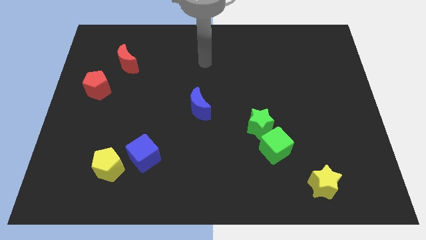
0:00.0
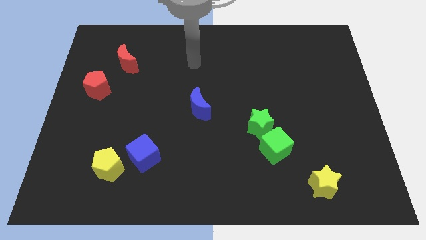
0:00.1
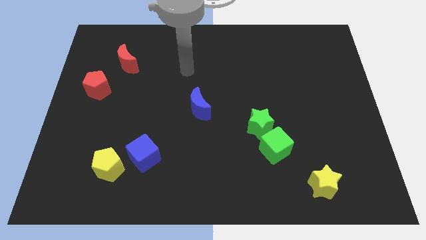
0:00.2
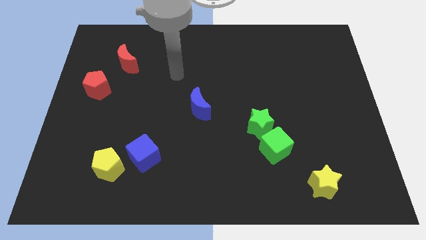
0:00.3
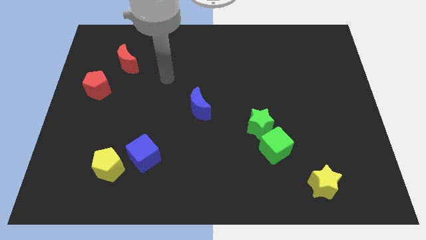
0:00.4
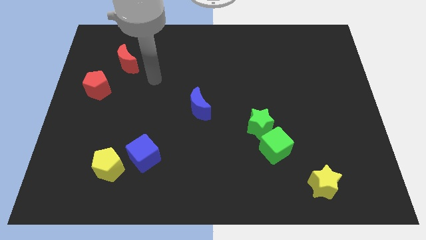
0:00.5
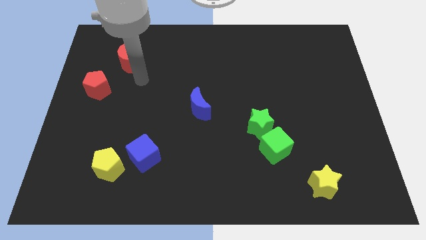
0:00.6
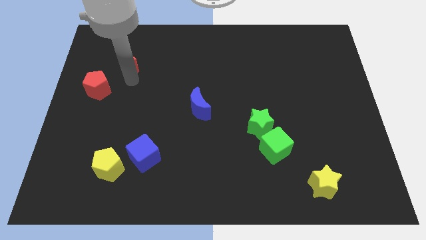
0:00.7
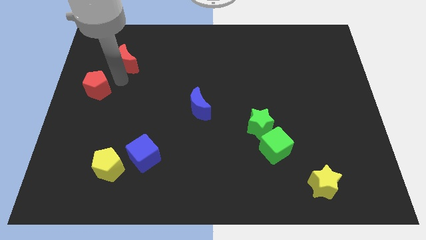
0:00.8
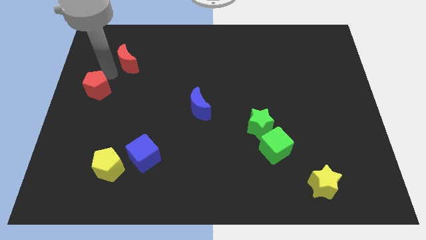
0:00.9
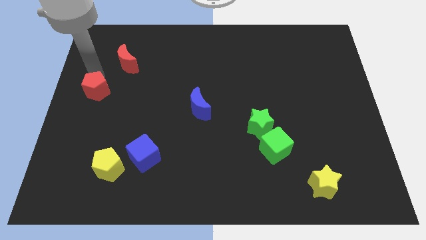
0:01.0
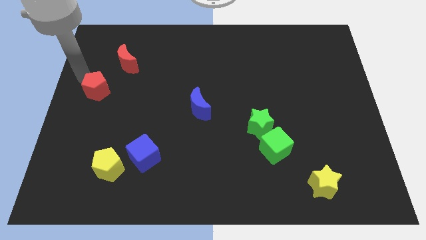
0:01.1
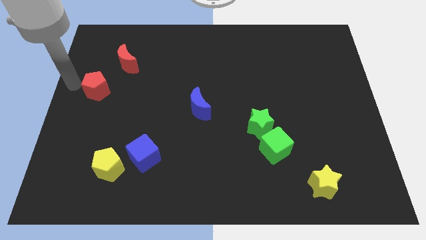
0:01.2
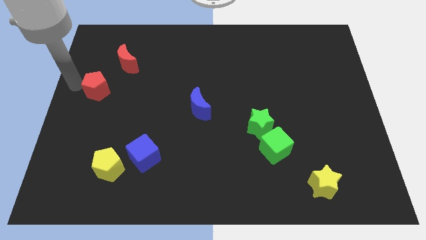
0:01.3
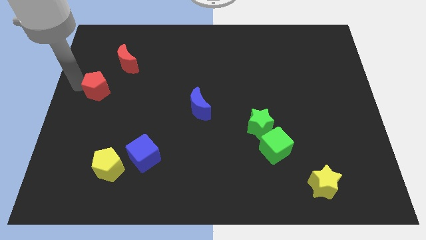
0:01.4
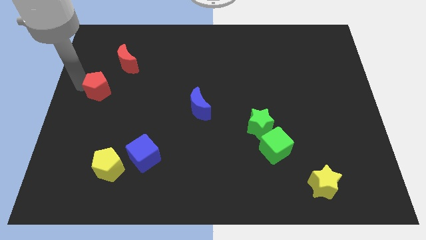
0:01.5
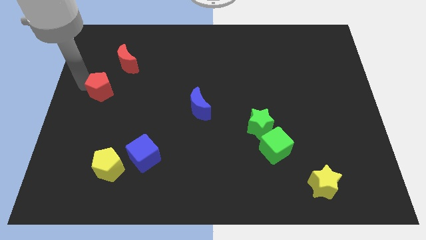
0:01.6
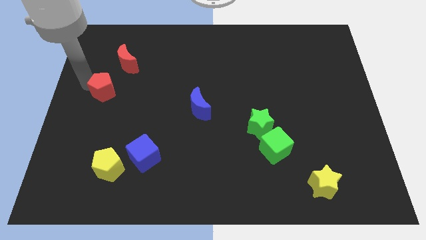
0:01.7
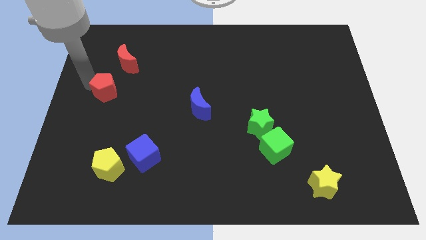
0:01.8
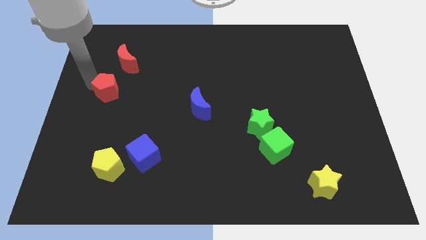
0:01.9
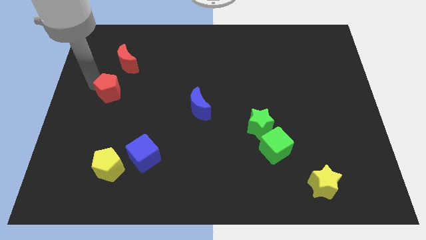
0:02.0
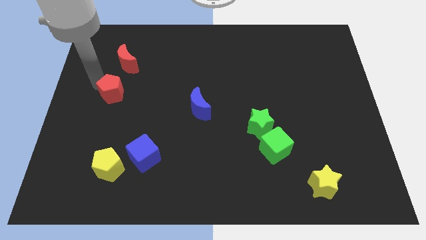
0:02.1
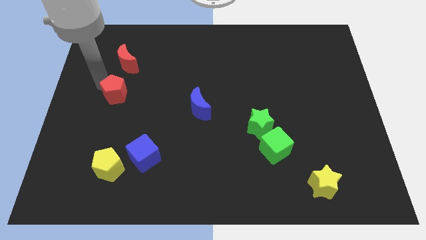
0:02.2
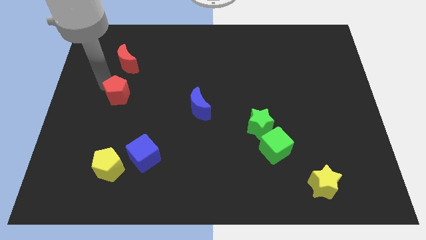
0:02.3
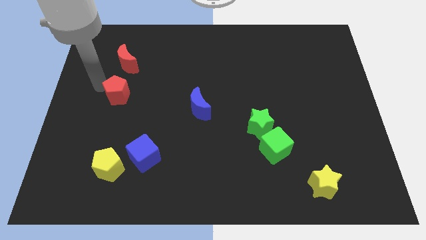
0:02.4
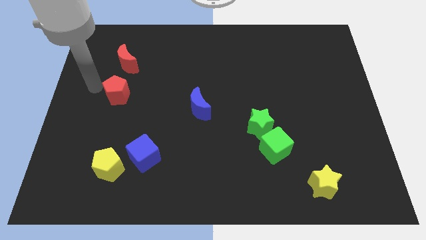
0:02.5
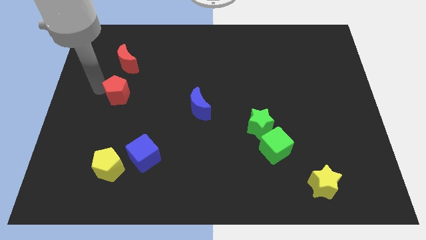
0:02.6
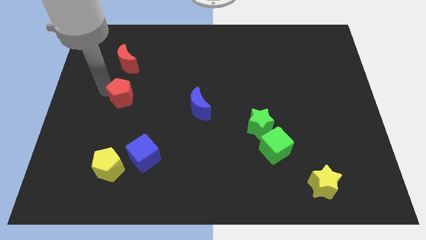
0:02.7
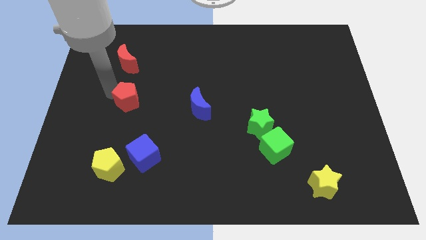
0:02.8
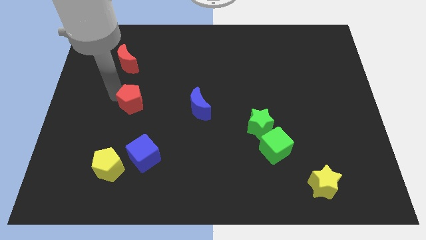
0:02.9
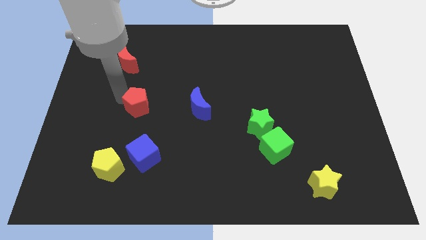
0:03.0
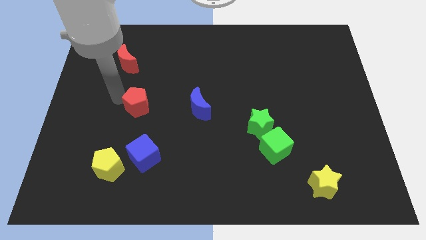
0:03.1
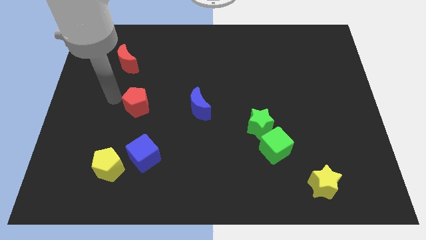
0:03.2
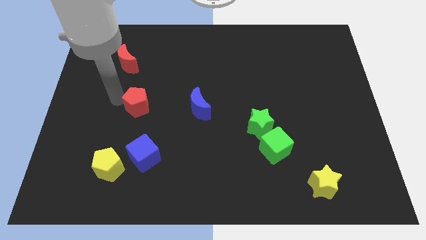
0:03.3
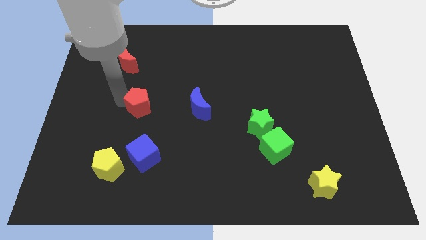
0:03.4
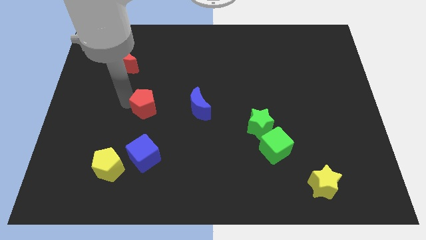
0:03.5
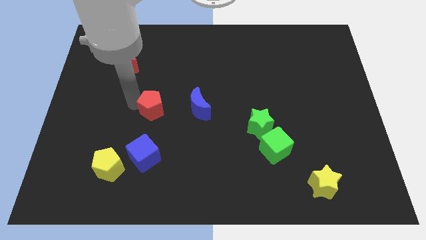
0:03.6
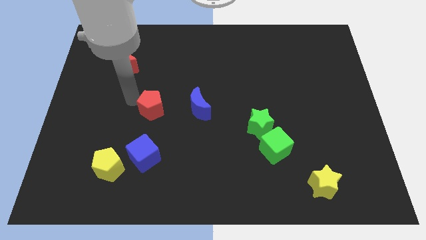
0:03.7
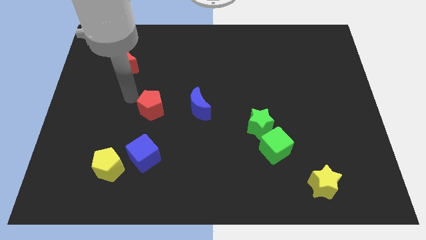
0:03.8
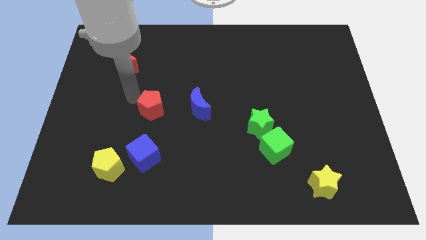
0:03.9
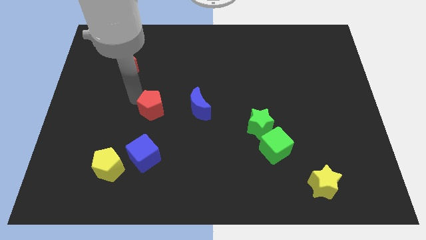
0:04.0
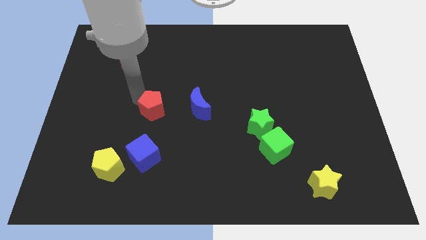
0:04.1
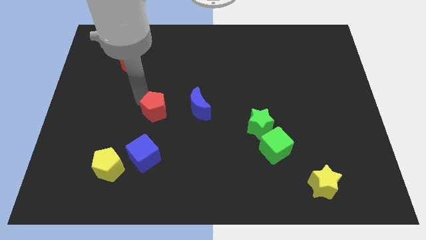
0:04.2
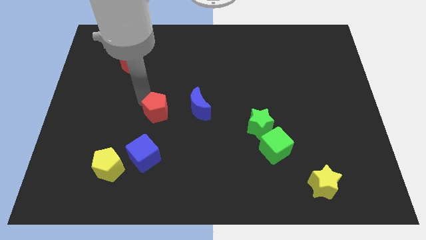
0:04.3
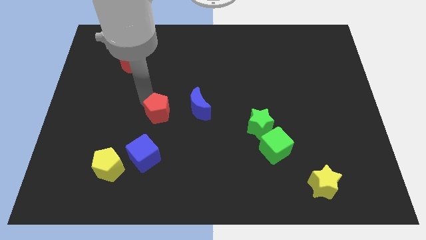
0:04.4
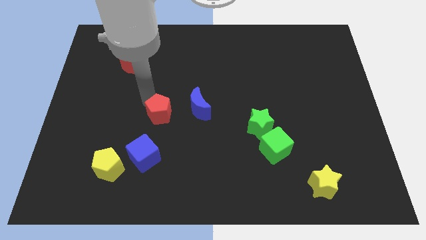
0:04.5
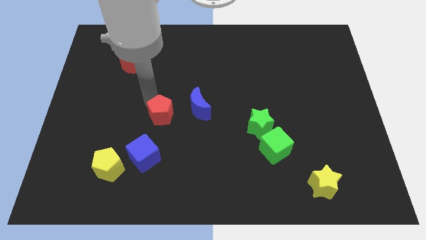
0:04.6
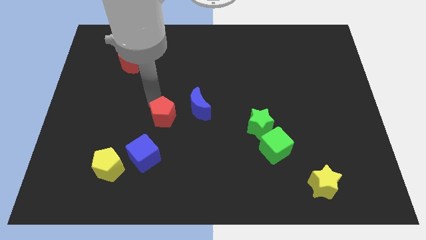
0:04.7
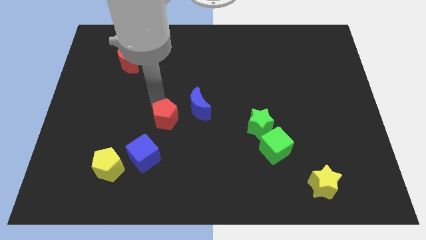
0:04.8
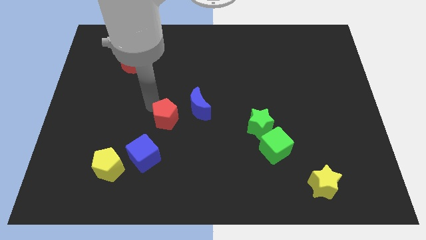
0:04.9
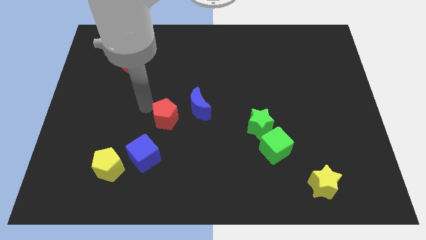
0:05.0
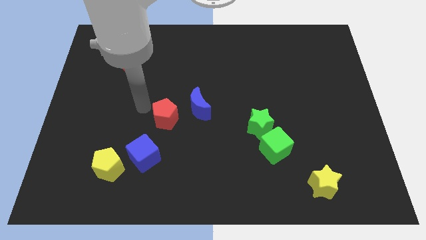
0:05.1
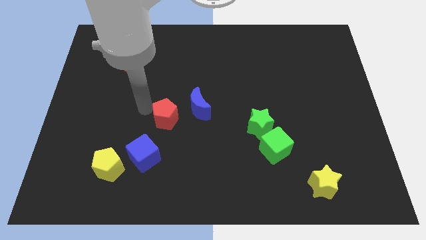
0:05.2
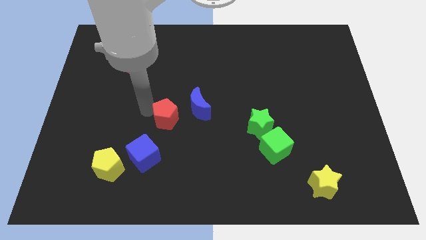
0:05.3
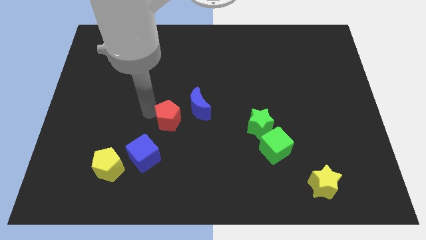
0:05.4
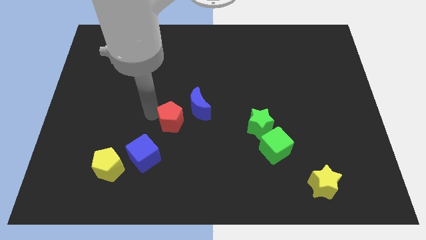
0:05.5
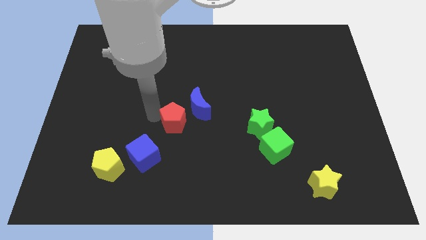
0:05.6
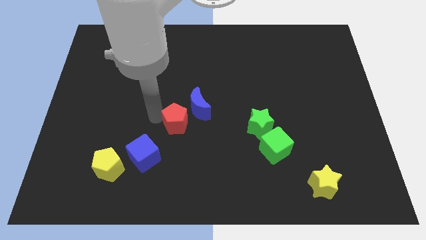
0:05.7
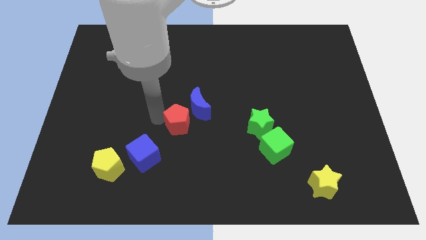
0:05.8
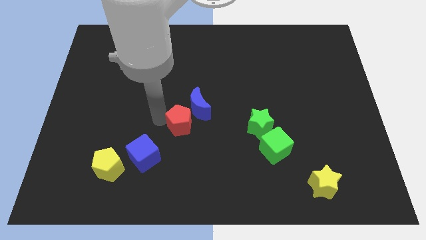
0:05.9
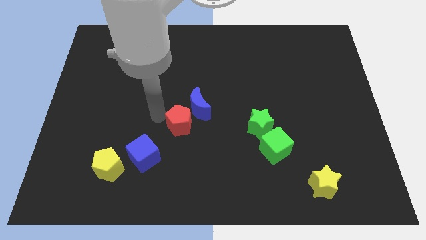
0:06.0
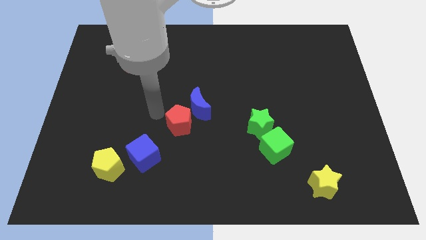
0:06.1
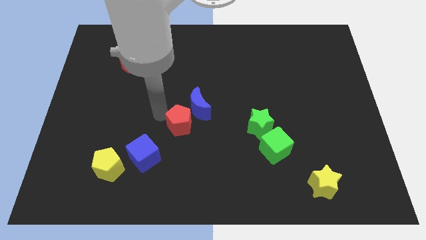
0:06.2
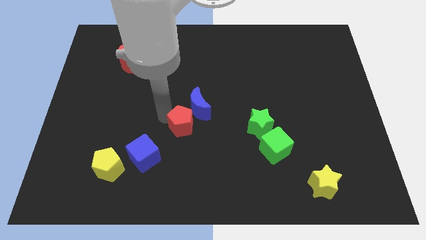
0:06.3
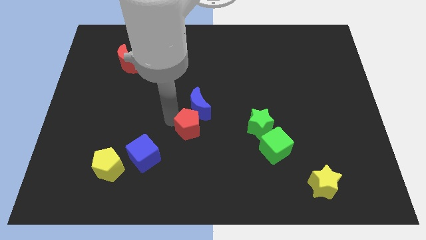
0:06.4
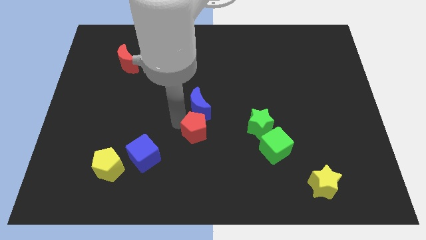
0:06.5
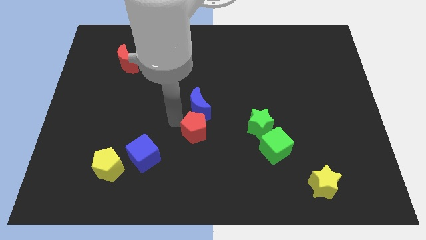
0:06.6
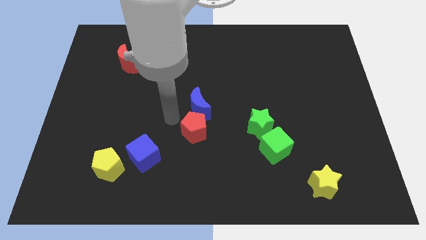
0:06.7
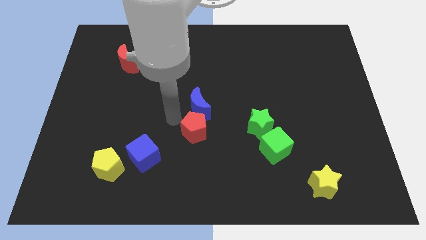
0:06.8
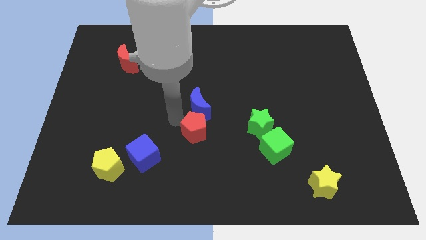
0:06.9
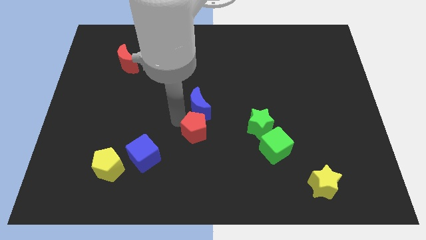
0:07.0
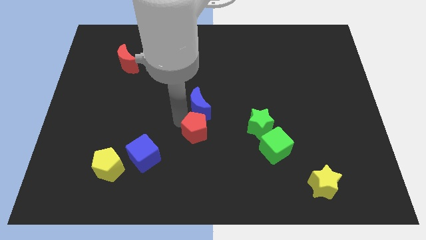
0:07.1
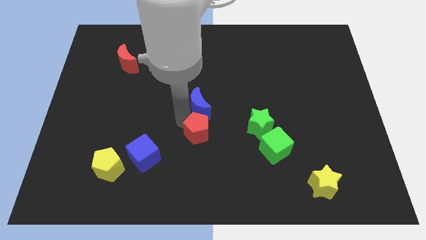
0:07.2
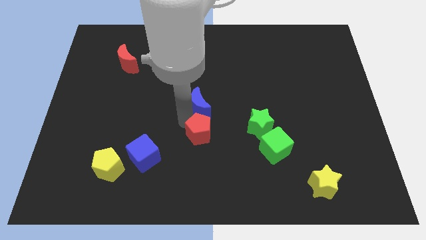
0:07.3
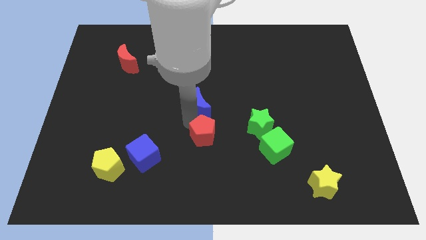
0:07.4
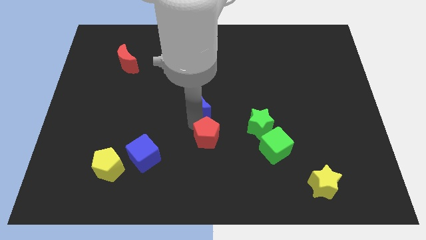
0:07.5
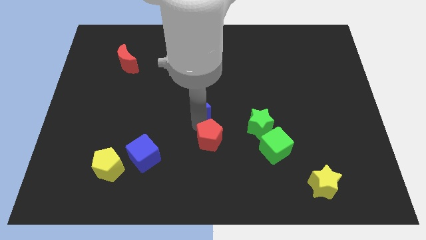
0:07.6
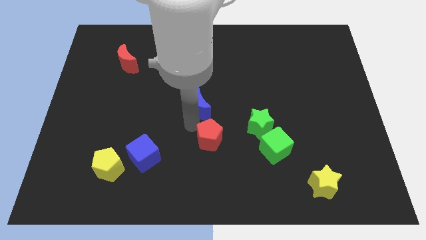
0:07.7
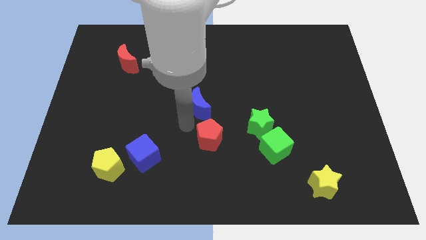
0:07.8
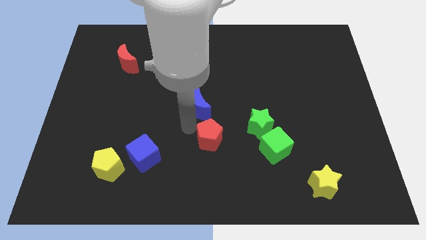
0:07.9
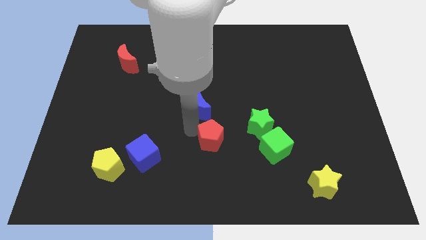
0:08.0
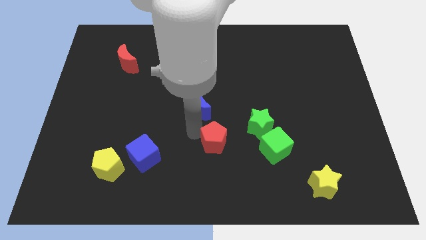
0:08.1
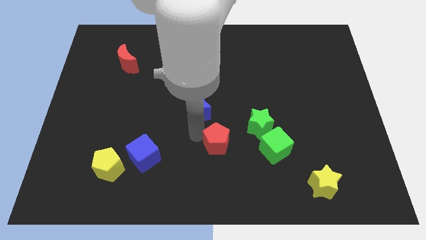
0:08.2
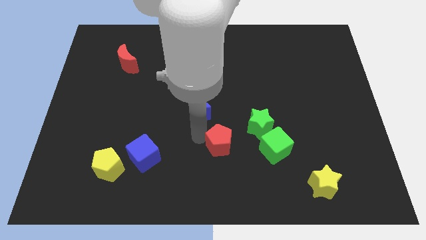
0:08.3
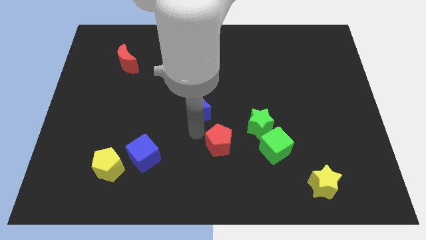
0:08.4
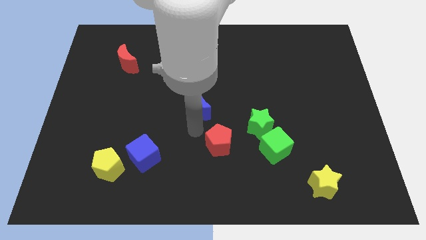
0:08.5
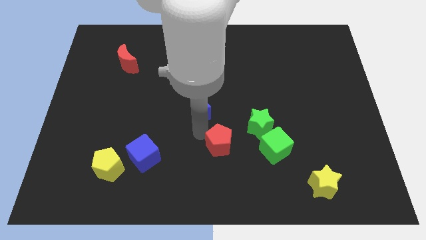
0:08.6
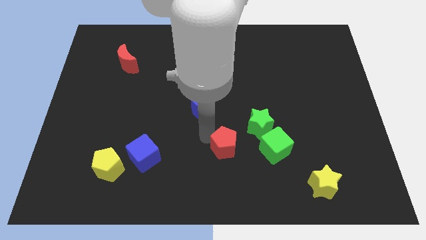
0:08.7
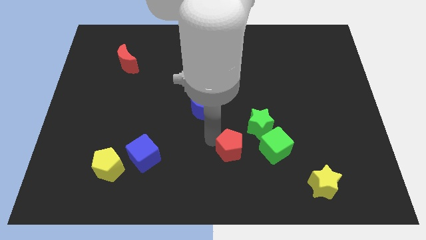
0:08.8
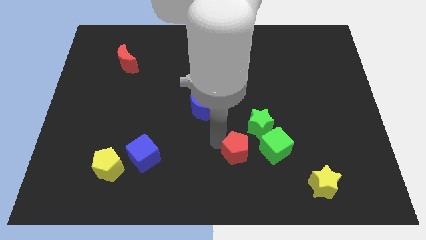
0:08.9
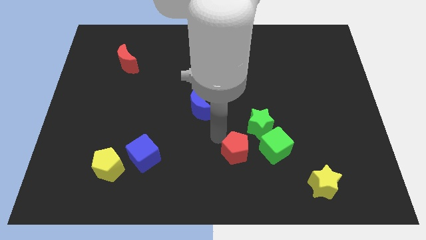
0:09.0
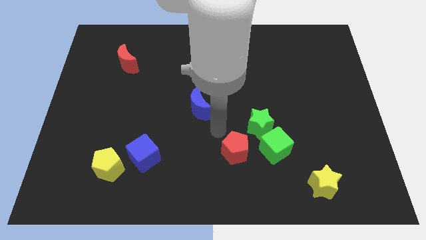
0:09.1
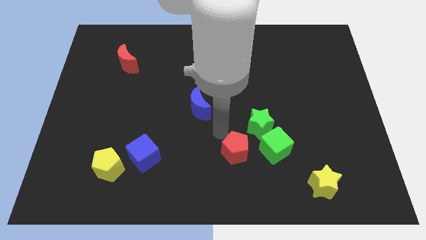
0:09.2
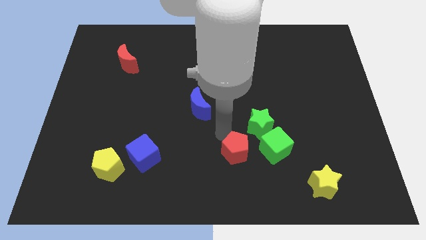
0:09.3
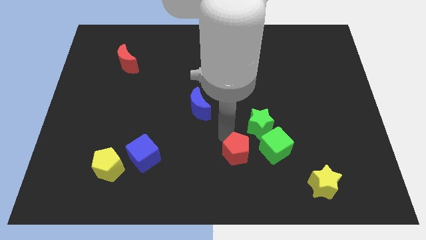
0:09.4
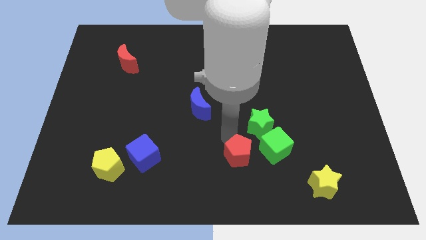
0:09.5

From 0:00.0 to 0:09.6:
slide the red pentagon diagonally down and to the left of the green cube
